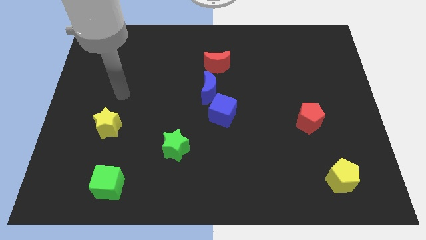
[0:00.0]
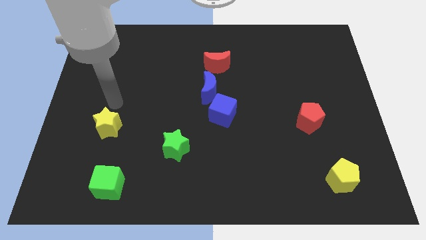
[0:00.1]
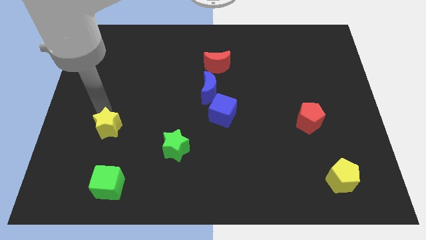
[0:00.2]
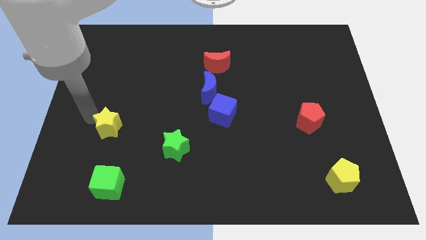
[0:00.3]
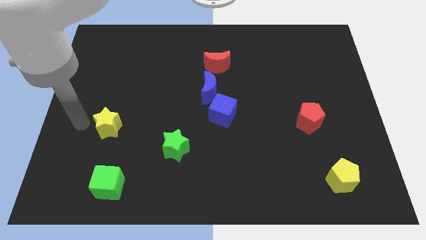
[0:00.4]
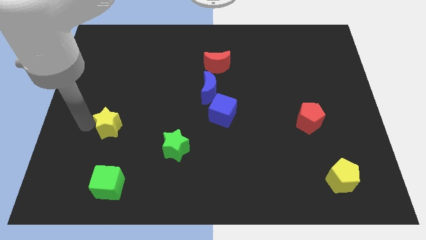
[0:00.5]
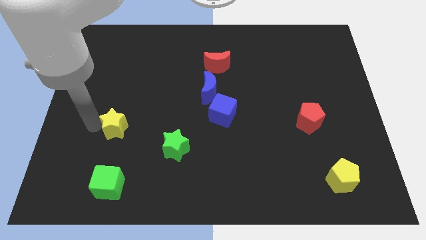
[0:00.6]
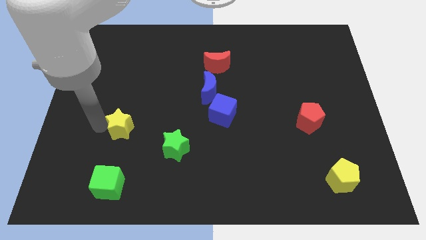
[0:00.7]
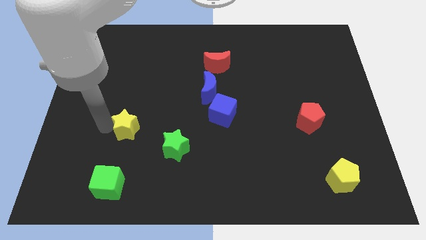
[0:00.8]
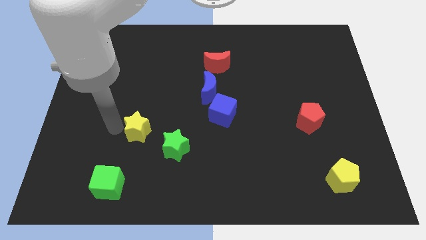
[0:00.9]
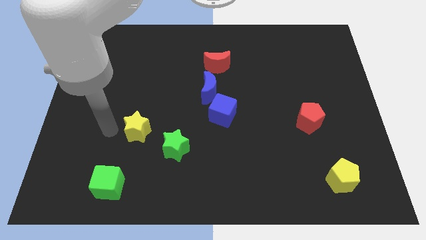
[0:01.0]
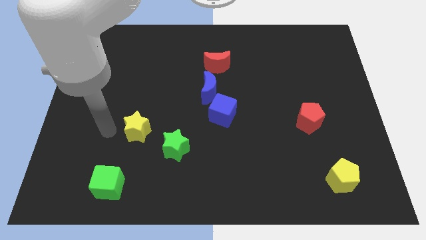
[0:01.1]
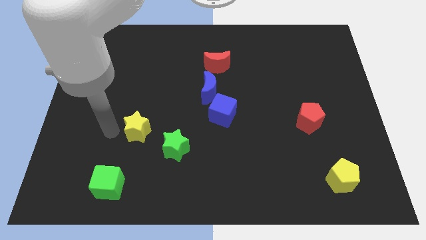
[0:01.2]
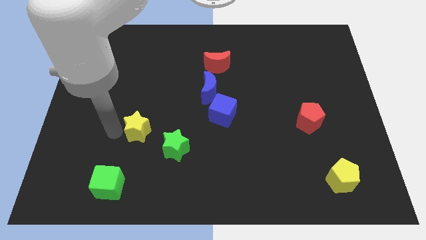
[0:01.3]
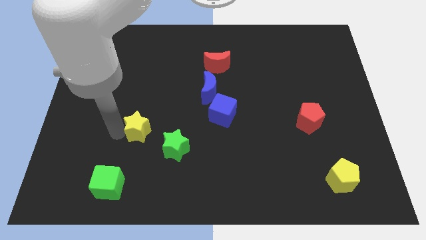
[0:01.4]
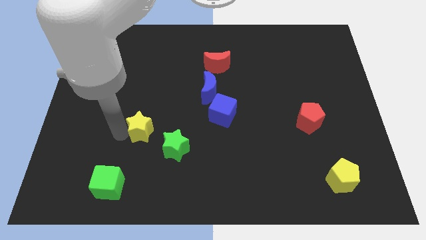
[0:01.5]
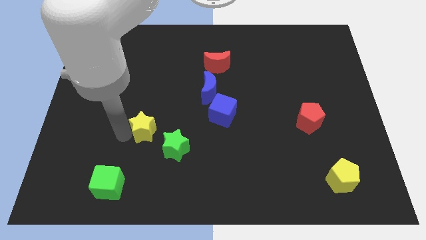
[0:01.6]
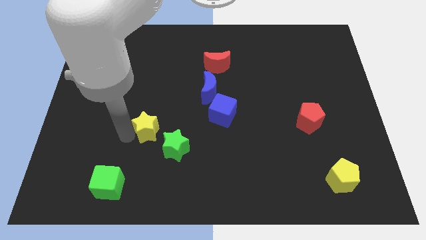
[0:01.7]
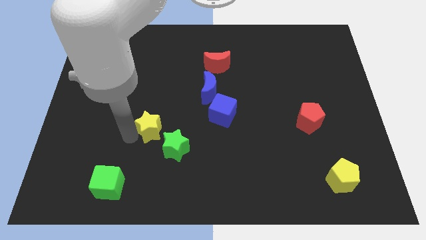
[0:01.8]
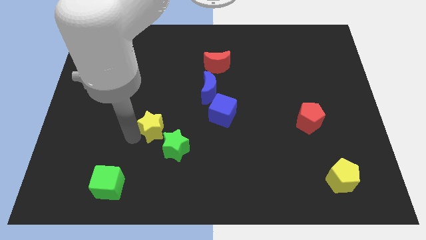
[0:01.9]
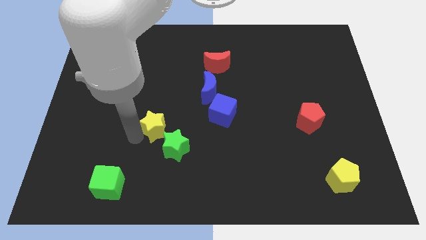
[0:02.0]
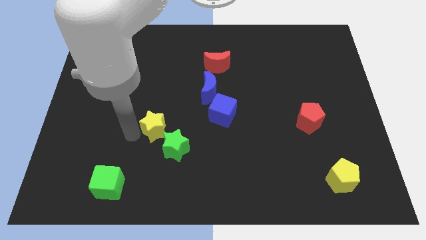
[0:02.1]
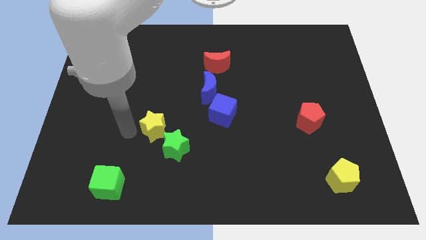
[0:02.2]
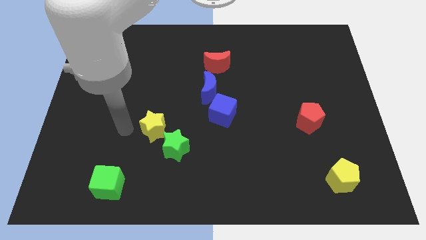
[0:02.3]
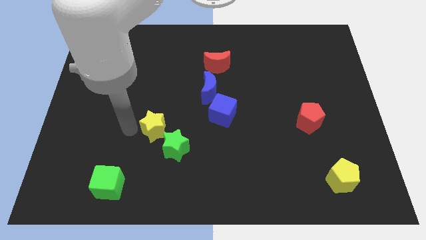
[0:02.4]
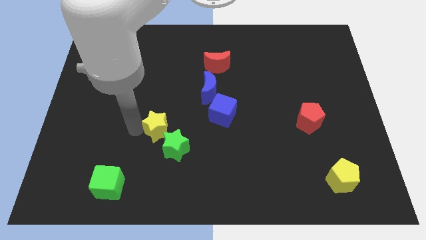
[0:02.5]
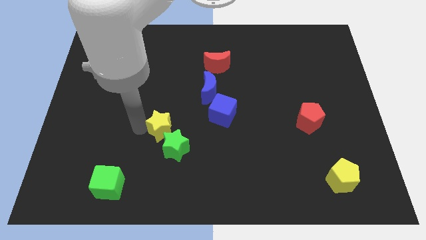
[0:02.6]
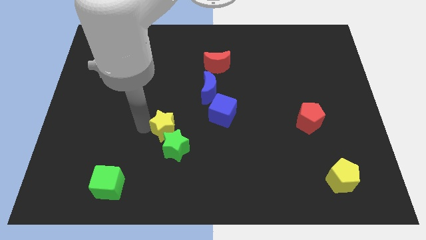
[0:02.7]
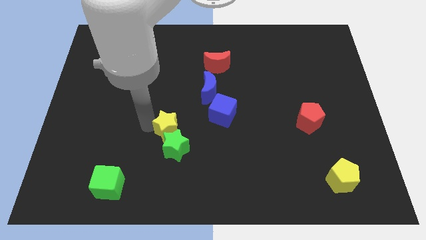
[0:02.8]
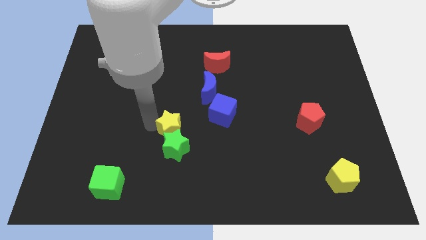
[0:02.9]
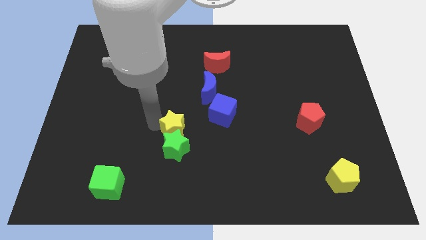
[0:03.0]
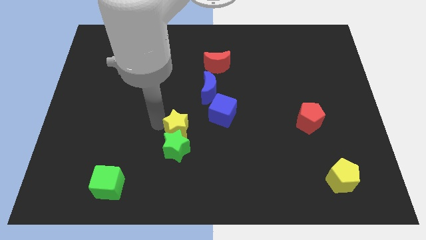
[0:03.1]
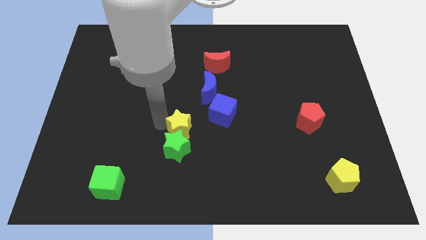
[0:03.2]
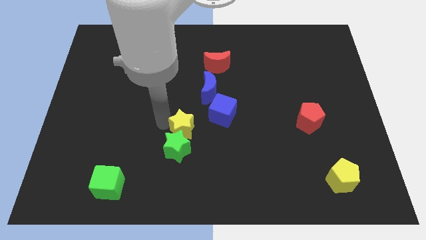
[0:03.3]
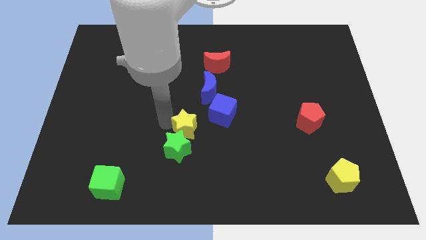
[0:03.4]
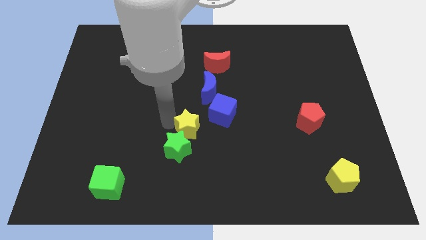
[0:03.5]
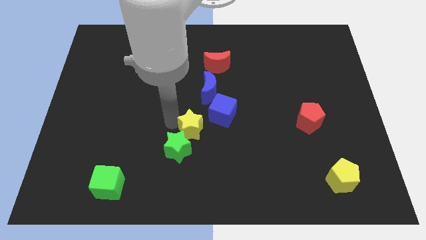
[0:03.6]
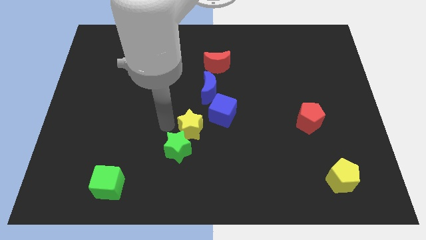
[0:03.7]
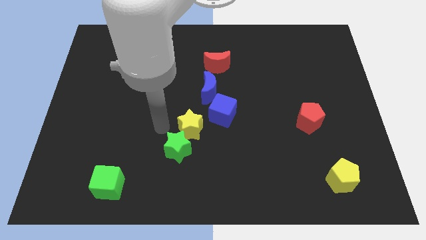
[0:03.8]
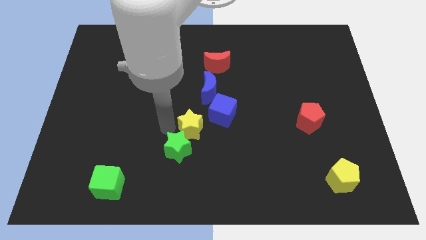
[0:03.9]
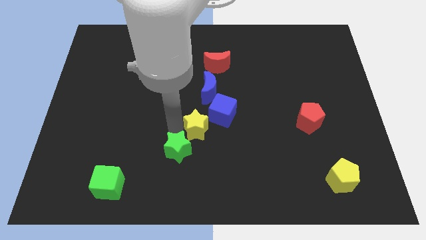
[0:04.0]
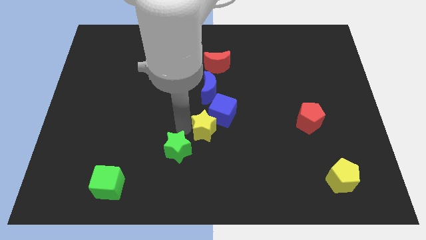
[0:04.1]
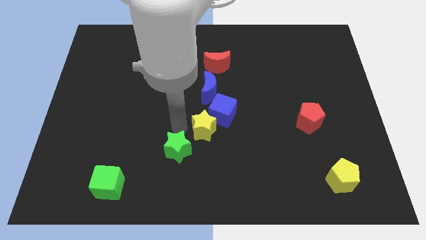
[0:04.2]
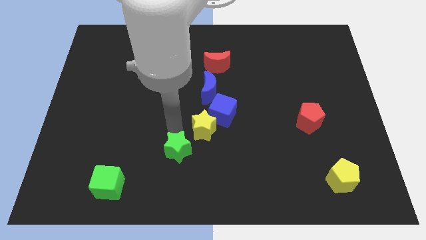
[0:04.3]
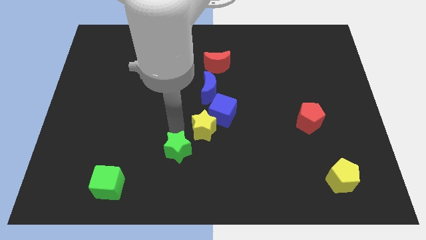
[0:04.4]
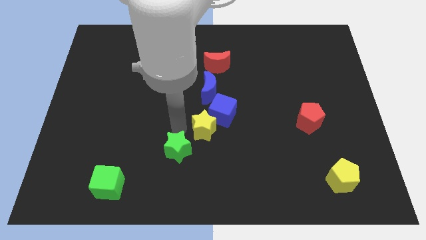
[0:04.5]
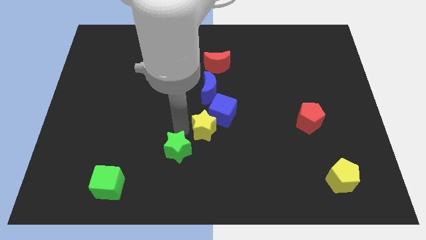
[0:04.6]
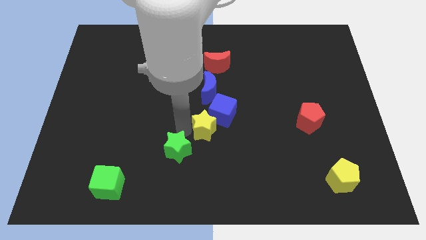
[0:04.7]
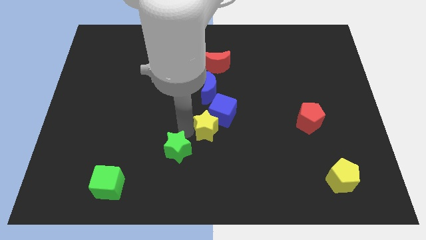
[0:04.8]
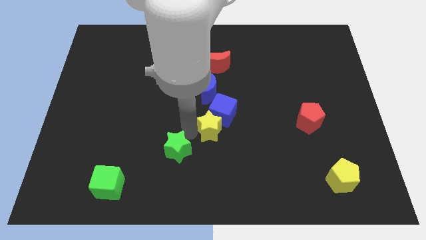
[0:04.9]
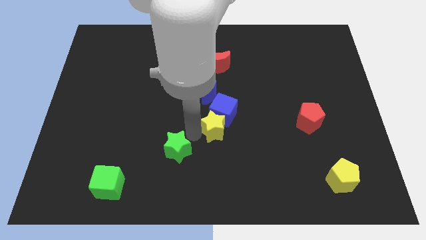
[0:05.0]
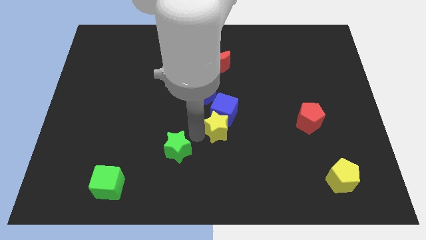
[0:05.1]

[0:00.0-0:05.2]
put the yellow star to the bottom right side of the blue cube

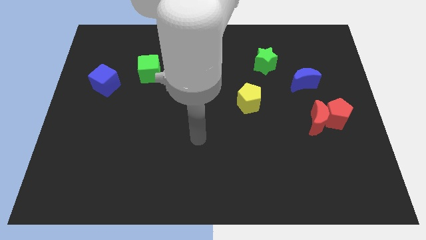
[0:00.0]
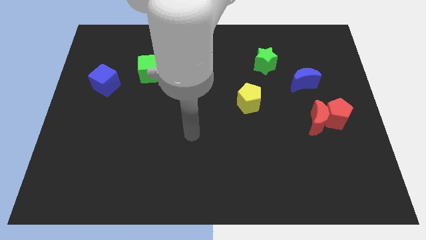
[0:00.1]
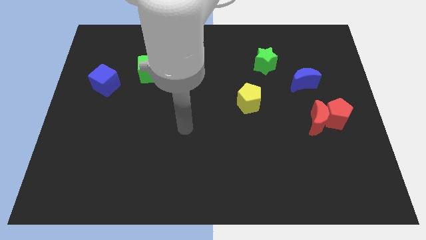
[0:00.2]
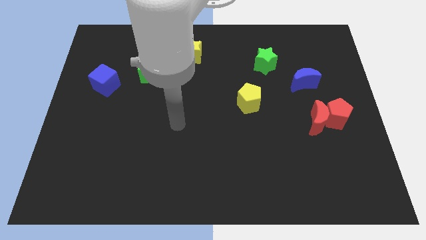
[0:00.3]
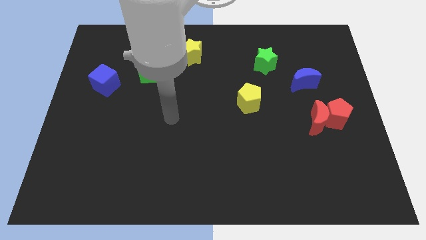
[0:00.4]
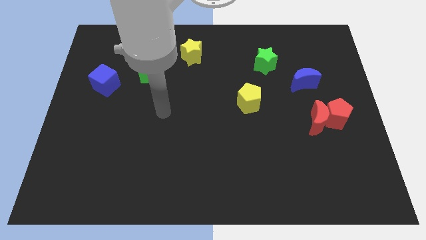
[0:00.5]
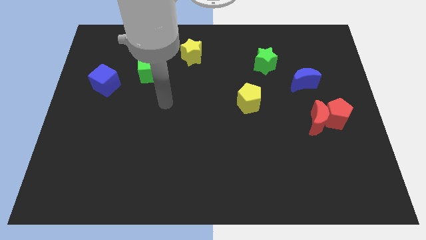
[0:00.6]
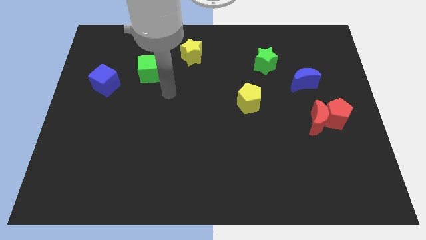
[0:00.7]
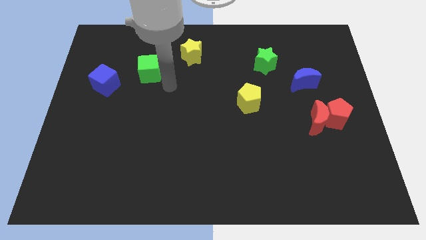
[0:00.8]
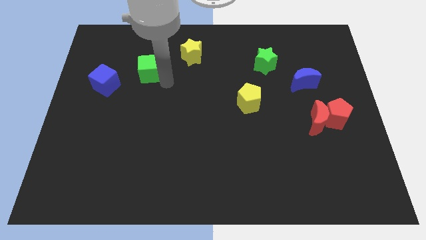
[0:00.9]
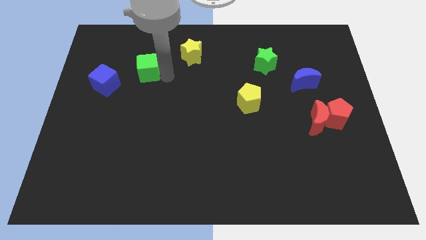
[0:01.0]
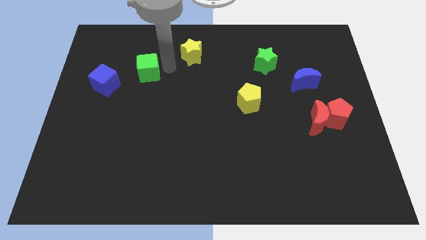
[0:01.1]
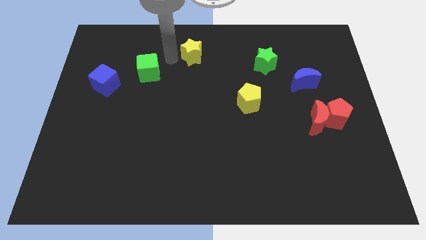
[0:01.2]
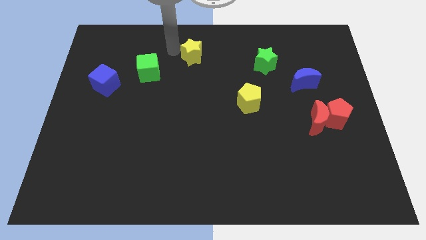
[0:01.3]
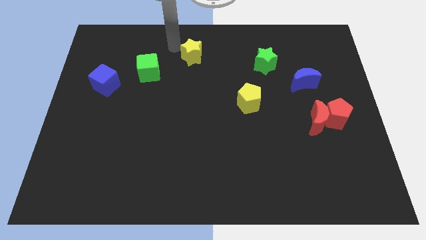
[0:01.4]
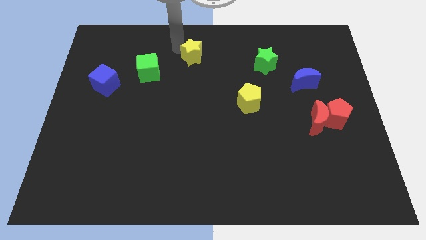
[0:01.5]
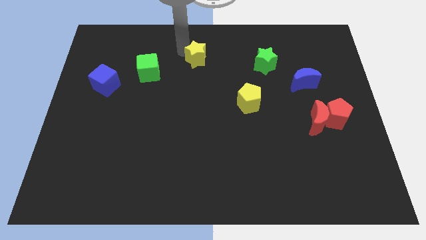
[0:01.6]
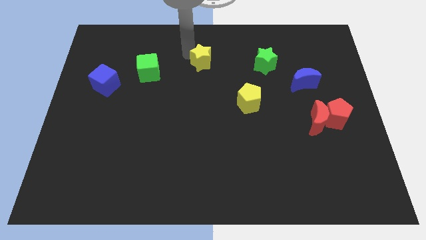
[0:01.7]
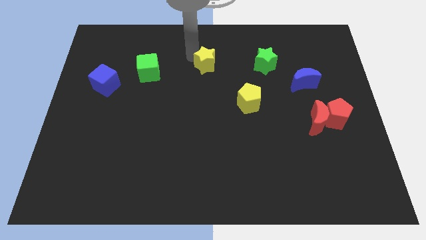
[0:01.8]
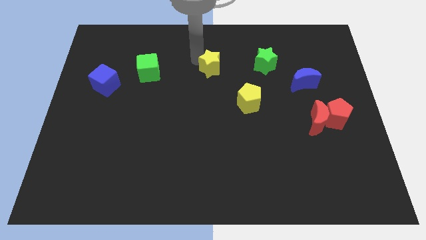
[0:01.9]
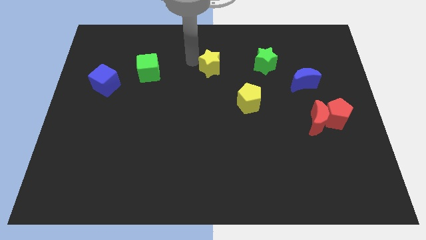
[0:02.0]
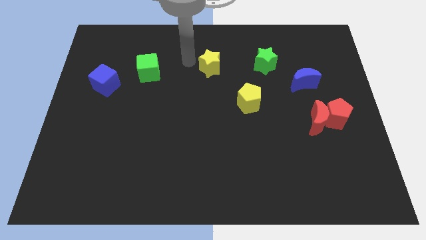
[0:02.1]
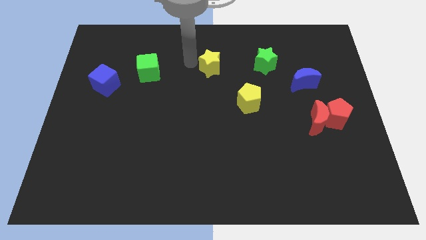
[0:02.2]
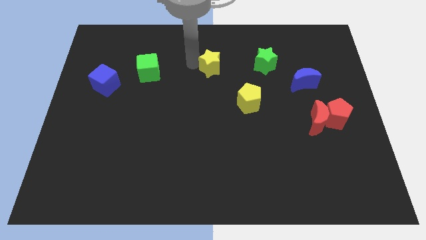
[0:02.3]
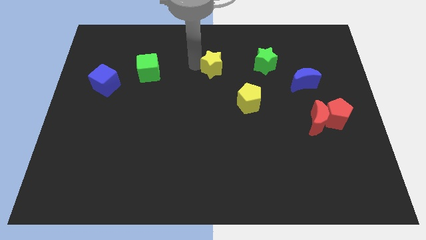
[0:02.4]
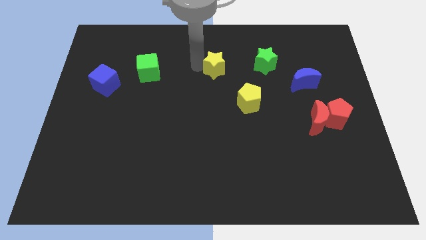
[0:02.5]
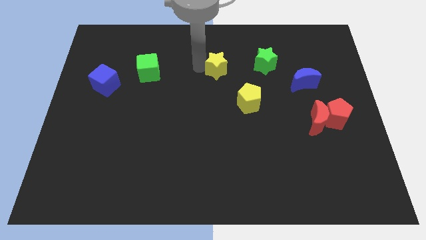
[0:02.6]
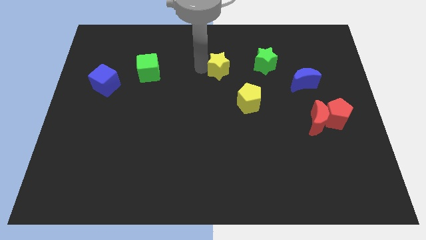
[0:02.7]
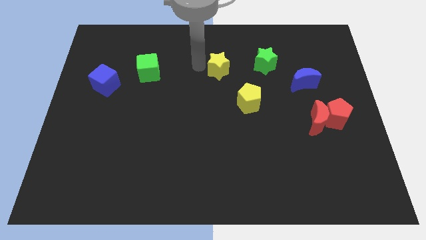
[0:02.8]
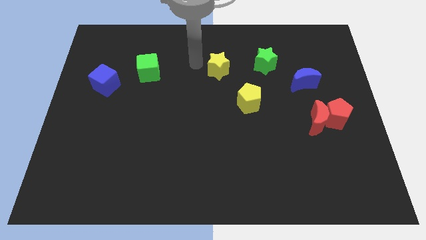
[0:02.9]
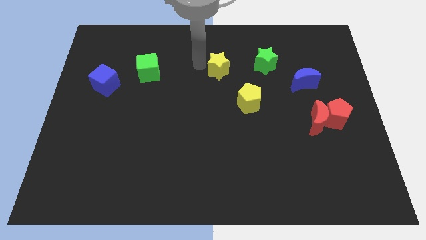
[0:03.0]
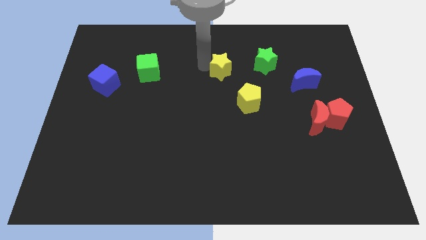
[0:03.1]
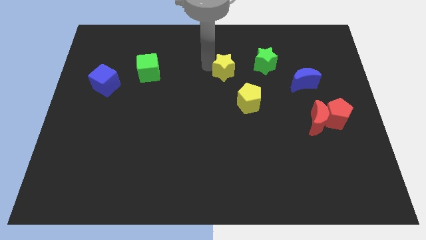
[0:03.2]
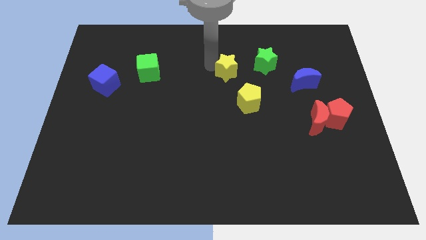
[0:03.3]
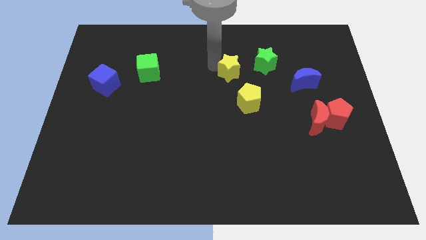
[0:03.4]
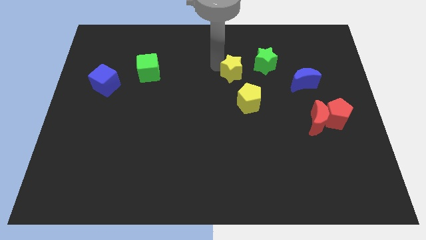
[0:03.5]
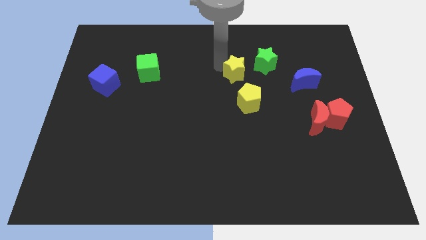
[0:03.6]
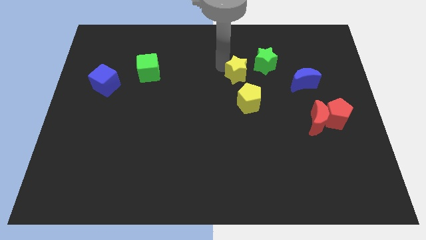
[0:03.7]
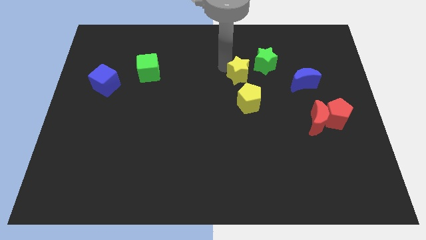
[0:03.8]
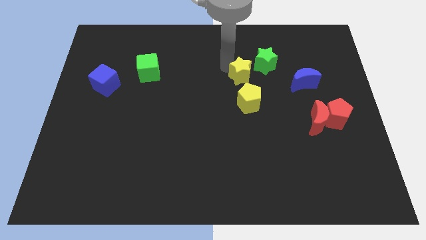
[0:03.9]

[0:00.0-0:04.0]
slide the yellow star to the left of the blue moon
